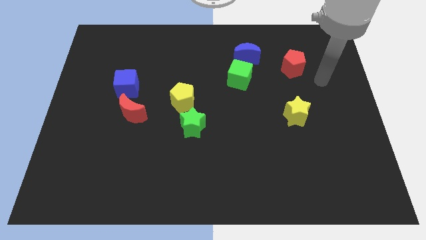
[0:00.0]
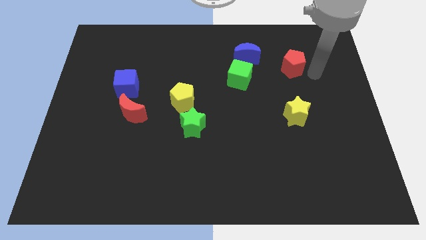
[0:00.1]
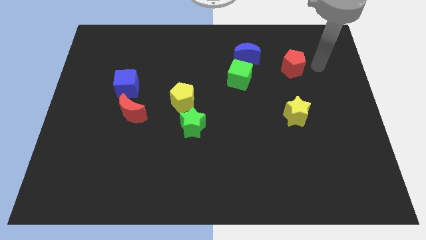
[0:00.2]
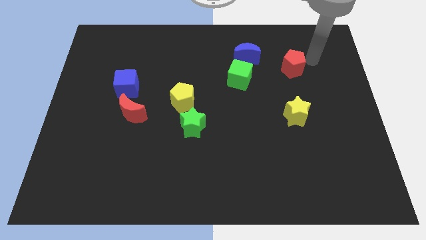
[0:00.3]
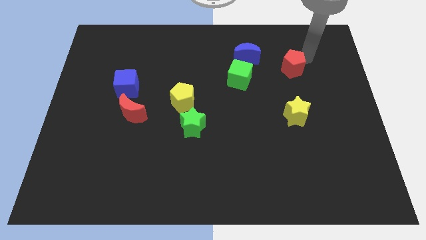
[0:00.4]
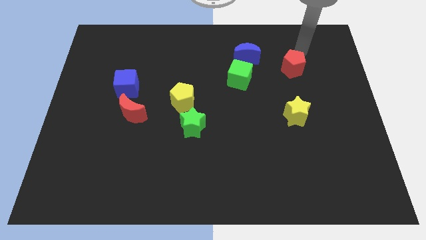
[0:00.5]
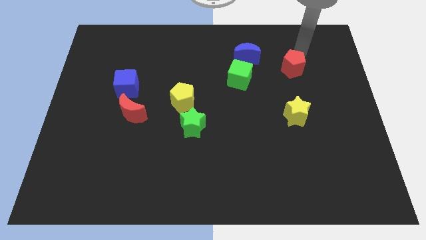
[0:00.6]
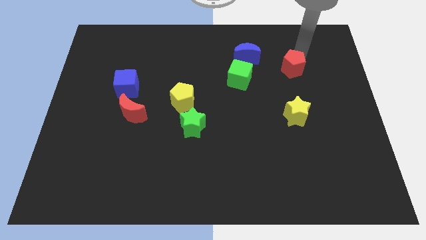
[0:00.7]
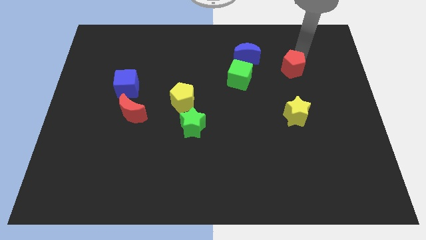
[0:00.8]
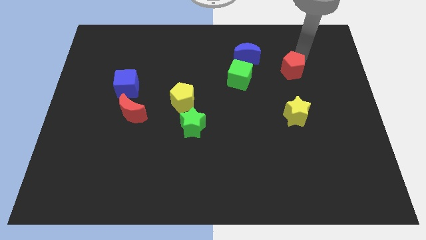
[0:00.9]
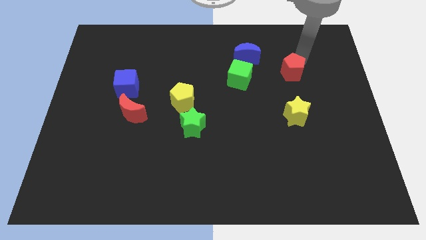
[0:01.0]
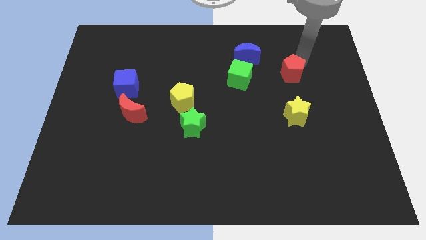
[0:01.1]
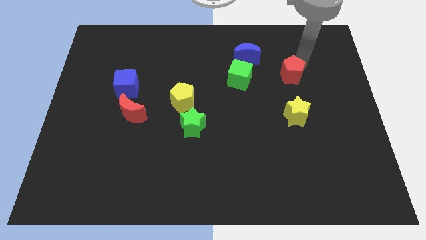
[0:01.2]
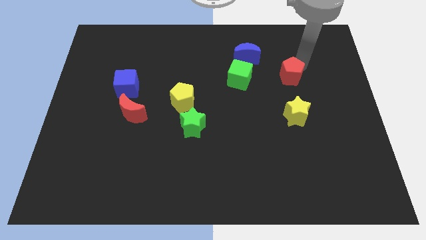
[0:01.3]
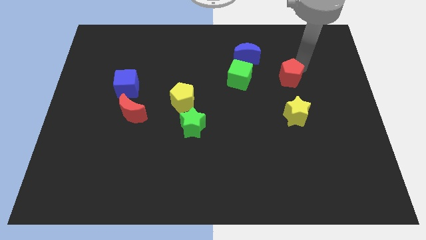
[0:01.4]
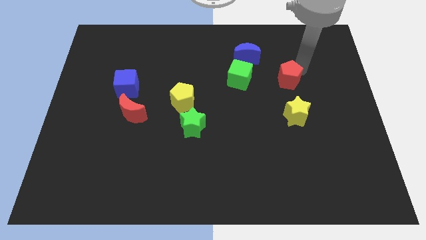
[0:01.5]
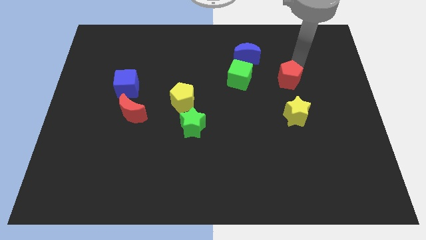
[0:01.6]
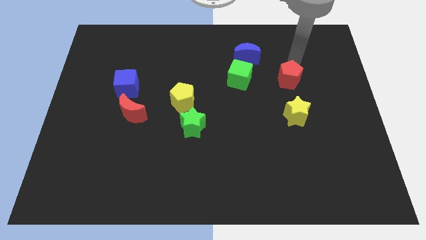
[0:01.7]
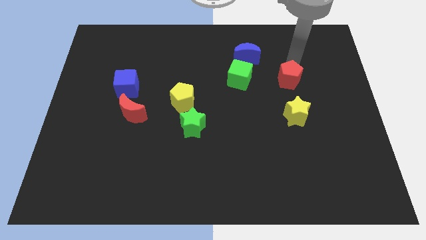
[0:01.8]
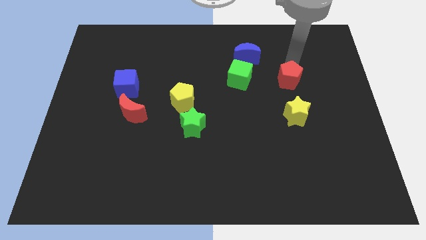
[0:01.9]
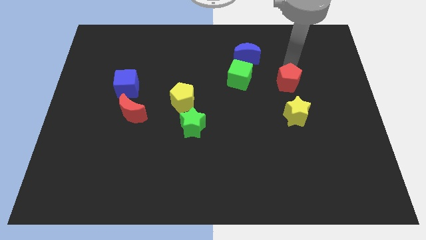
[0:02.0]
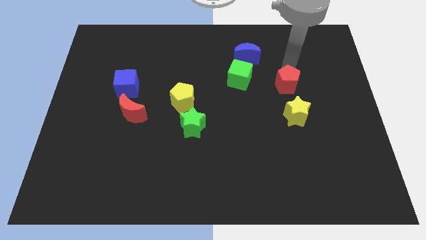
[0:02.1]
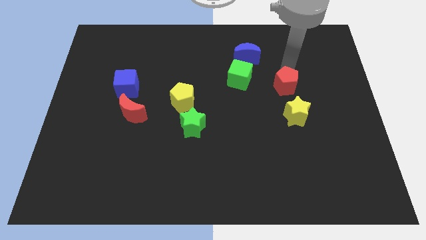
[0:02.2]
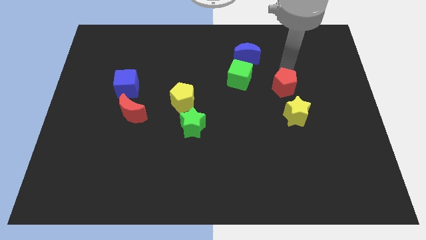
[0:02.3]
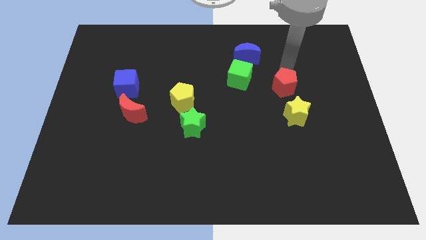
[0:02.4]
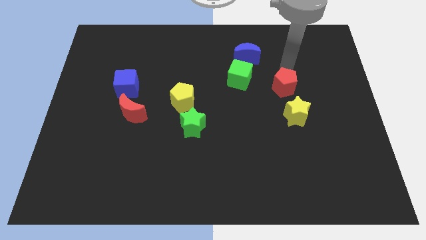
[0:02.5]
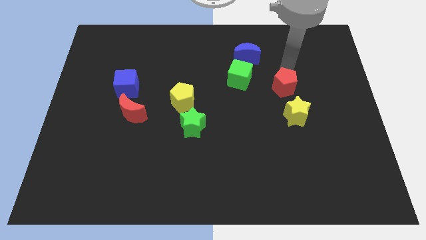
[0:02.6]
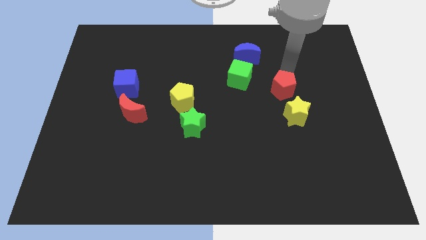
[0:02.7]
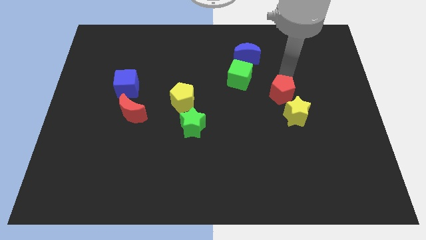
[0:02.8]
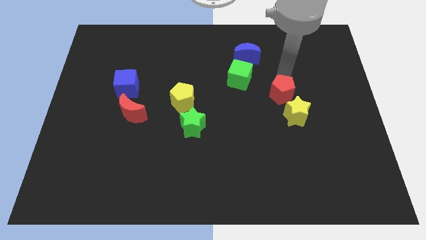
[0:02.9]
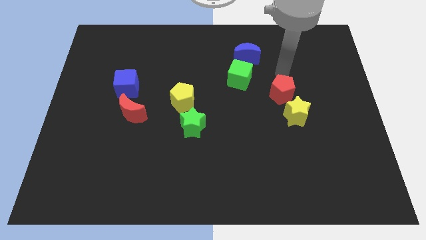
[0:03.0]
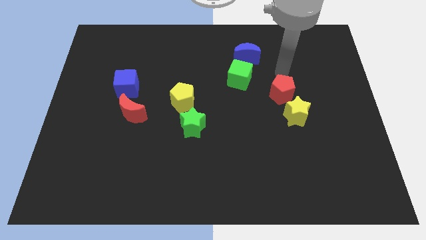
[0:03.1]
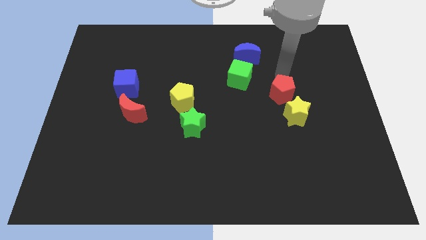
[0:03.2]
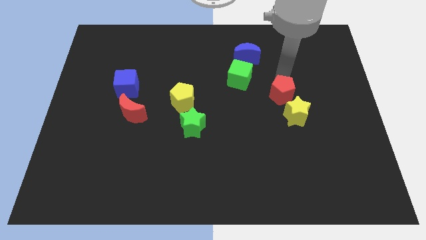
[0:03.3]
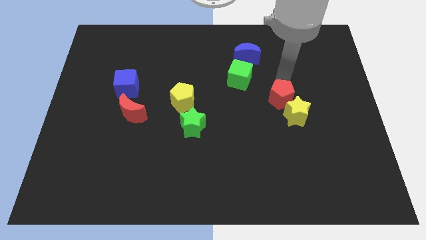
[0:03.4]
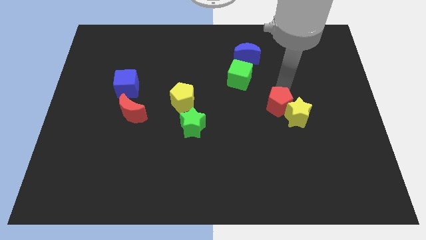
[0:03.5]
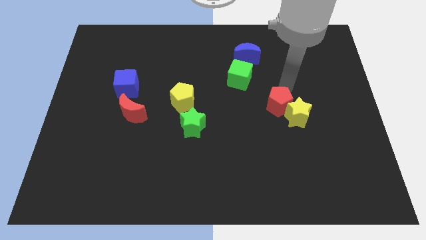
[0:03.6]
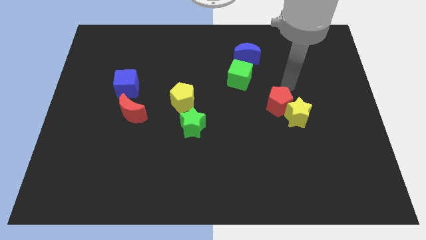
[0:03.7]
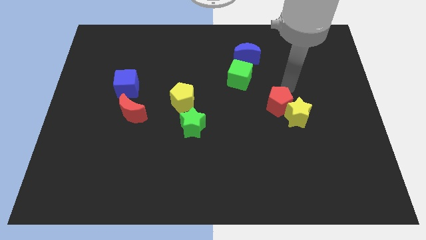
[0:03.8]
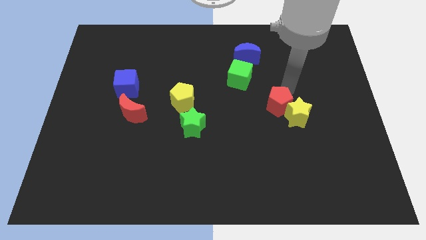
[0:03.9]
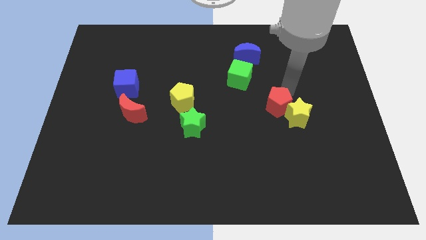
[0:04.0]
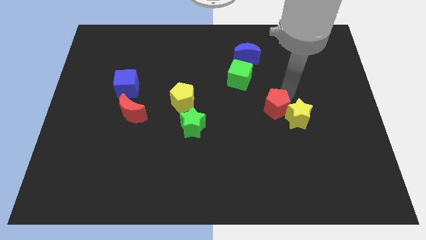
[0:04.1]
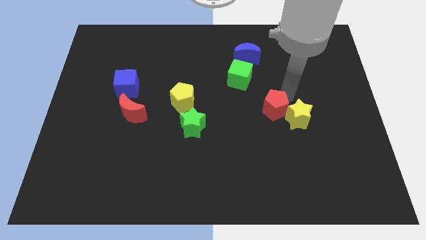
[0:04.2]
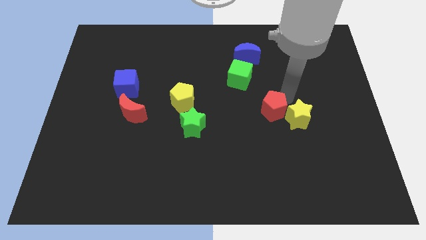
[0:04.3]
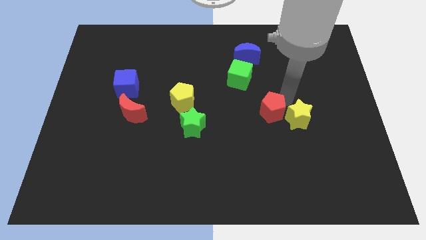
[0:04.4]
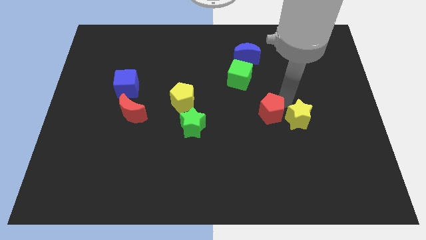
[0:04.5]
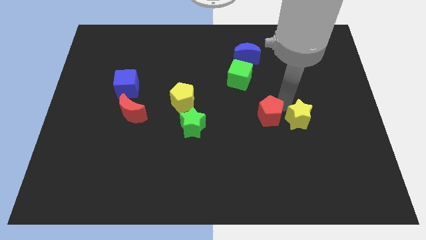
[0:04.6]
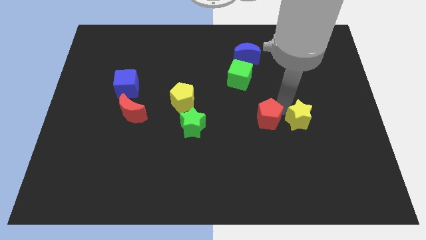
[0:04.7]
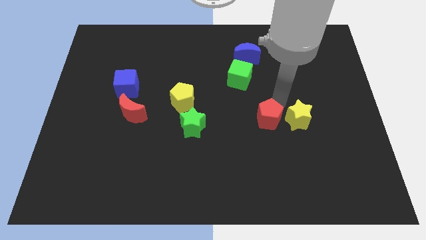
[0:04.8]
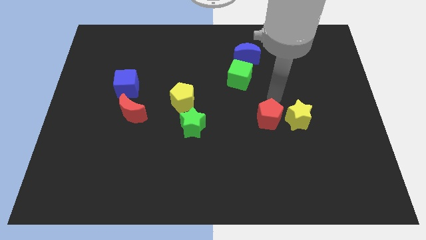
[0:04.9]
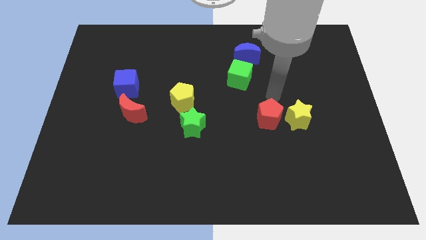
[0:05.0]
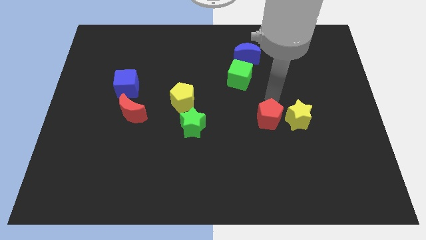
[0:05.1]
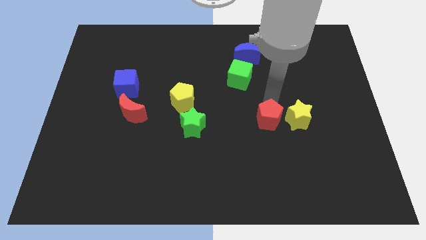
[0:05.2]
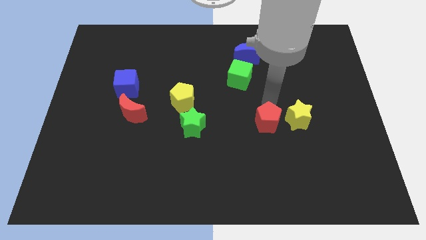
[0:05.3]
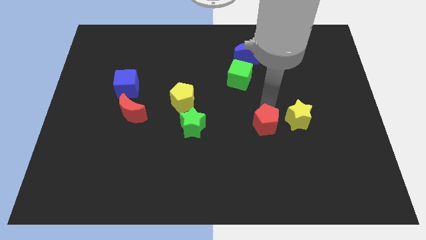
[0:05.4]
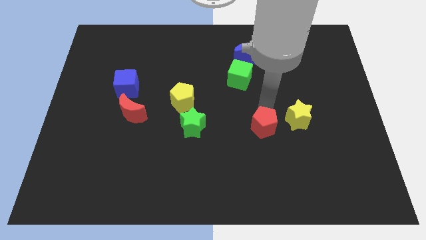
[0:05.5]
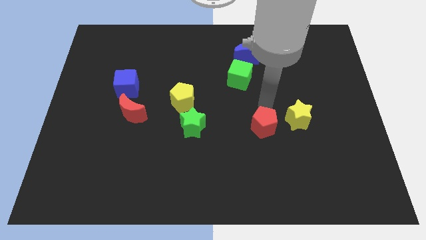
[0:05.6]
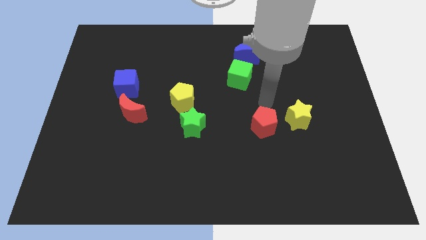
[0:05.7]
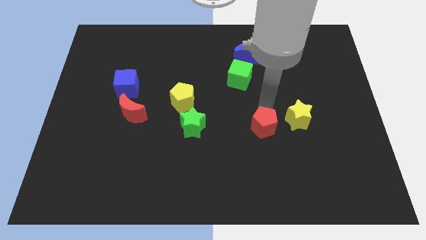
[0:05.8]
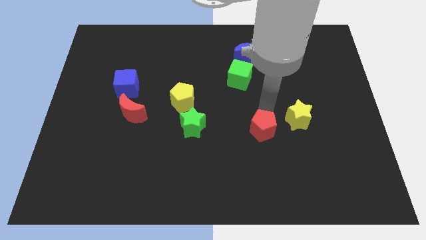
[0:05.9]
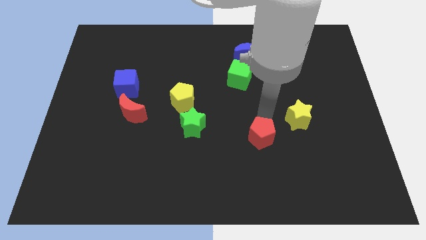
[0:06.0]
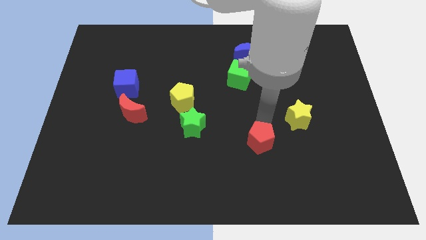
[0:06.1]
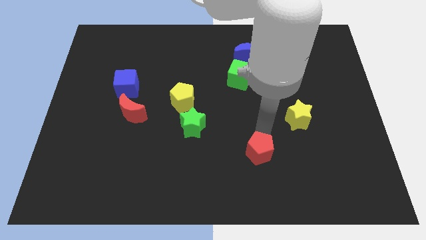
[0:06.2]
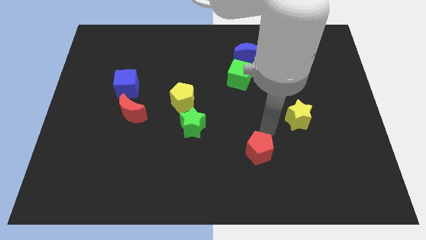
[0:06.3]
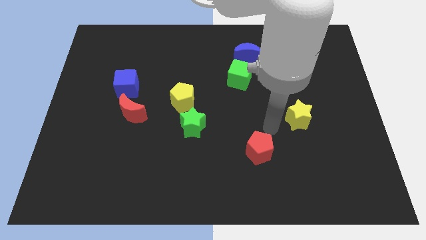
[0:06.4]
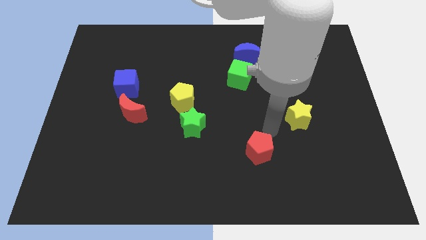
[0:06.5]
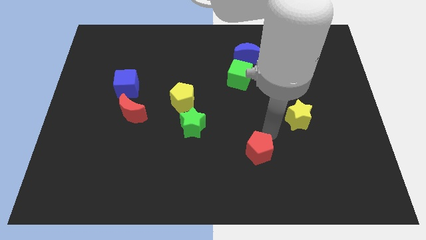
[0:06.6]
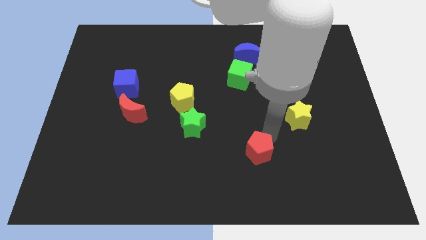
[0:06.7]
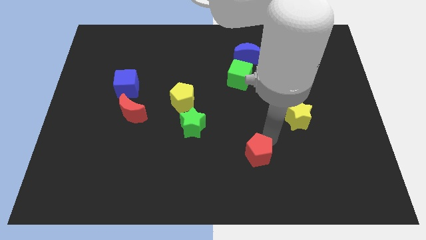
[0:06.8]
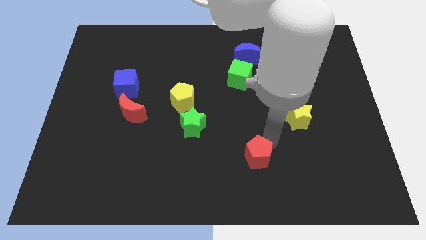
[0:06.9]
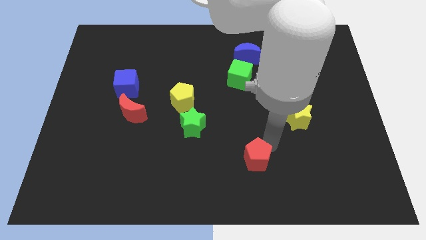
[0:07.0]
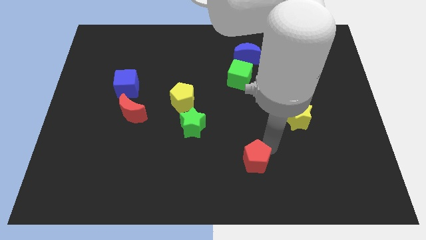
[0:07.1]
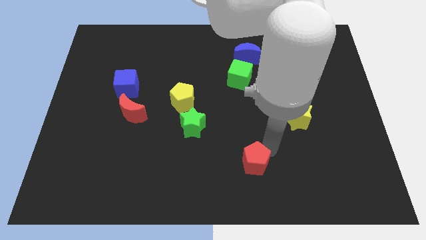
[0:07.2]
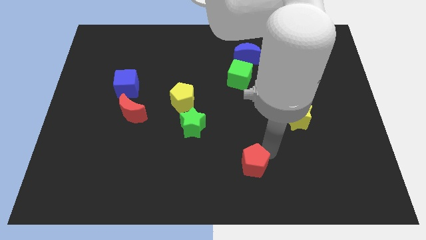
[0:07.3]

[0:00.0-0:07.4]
slide the red pentagon to the bottom
